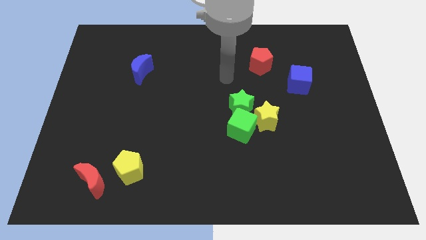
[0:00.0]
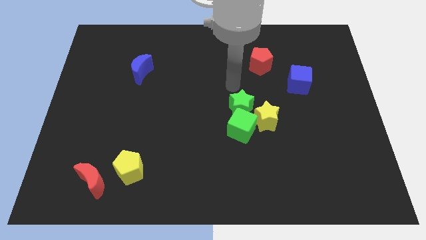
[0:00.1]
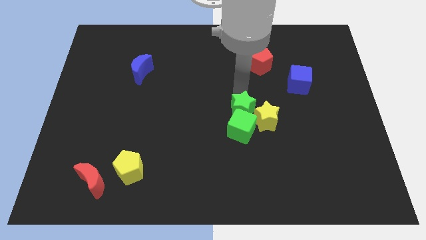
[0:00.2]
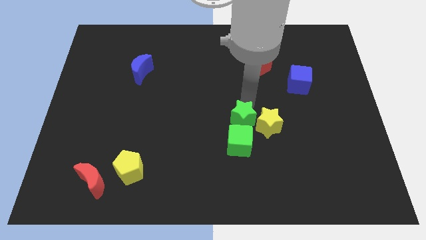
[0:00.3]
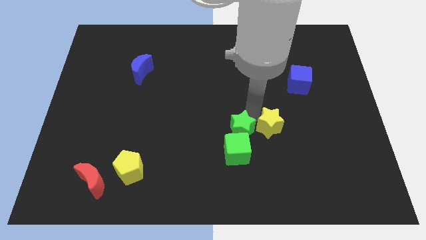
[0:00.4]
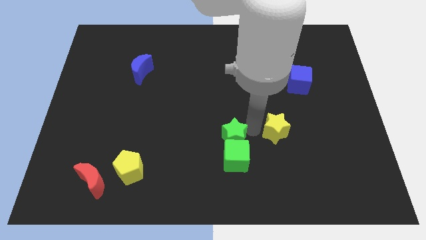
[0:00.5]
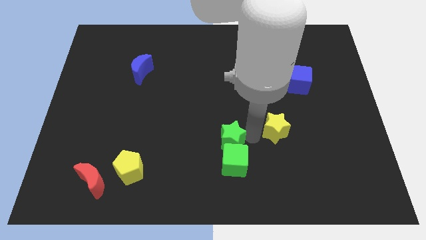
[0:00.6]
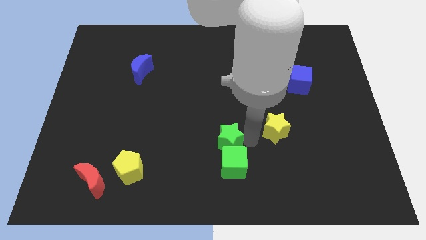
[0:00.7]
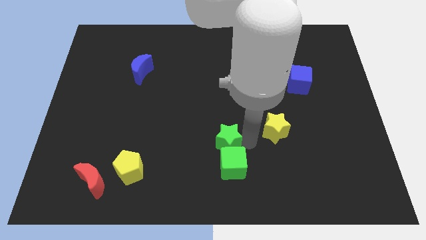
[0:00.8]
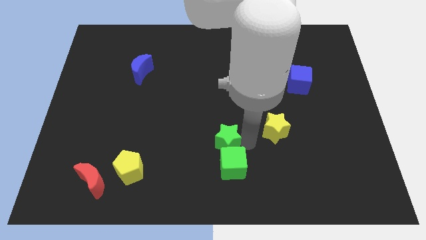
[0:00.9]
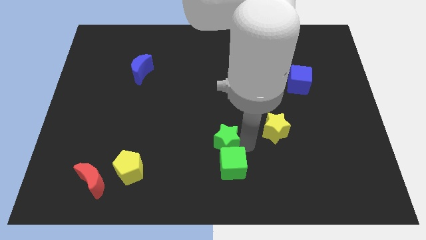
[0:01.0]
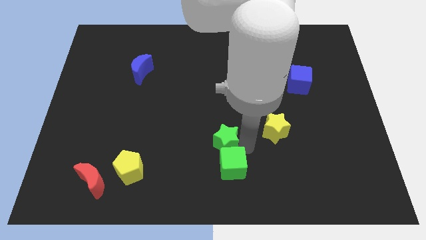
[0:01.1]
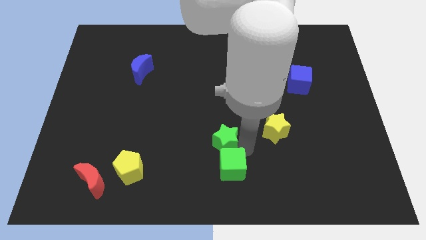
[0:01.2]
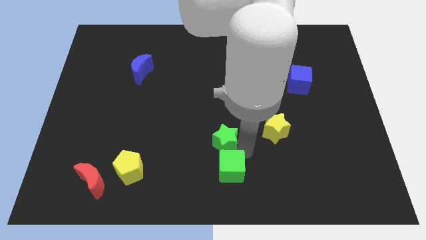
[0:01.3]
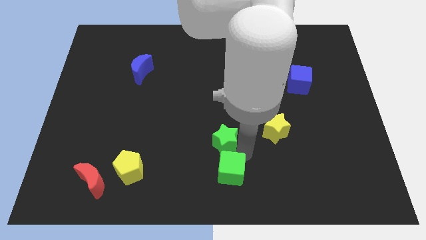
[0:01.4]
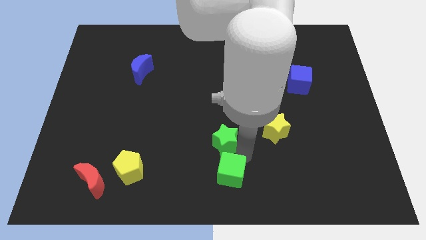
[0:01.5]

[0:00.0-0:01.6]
pull the green cube apart from the green star and yellow star

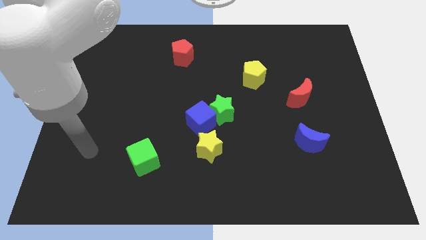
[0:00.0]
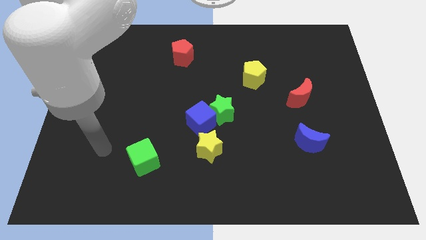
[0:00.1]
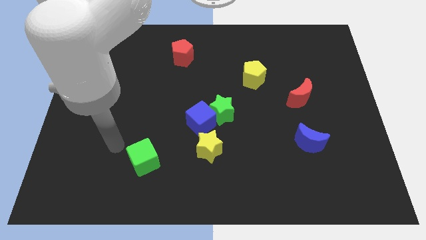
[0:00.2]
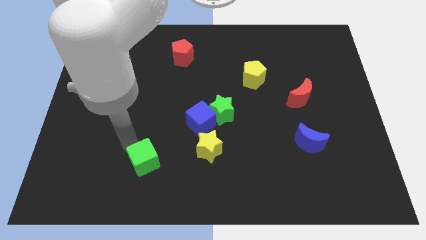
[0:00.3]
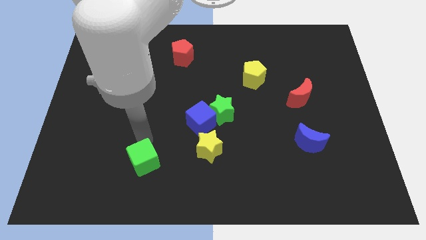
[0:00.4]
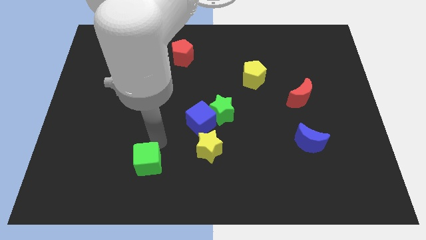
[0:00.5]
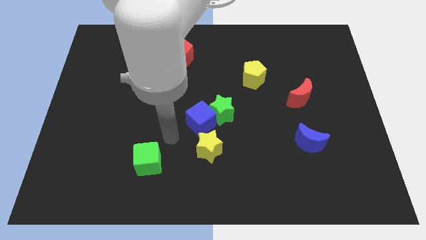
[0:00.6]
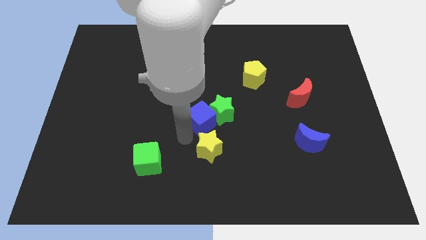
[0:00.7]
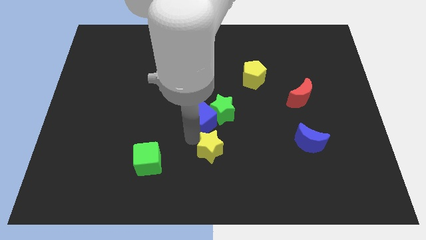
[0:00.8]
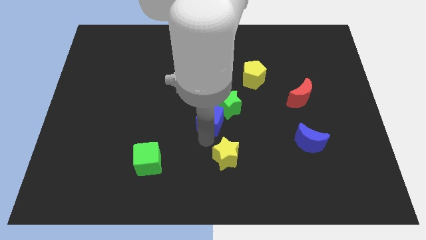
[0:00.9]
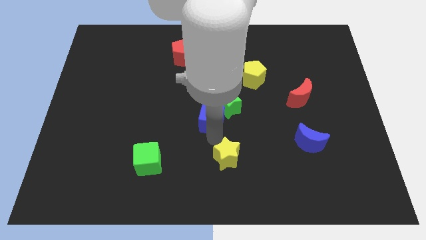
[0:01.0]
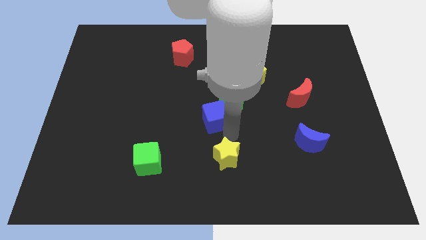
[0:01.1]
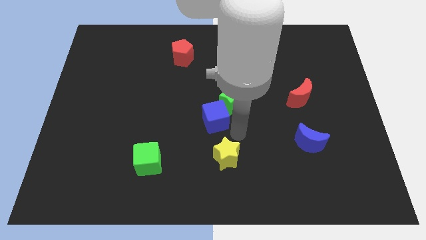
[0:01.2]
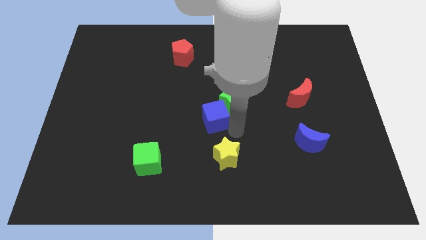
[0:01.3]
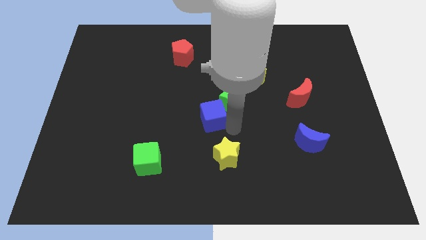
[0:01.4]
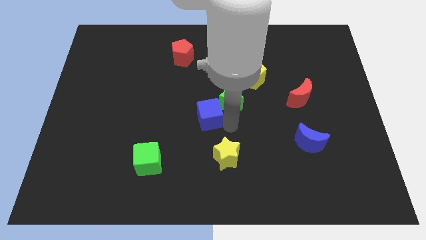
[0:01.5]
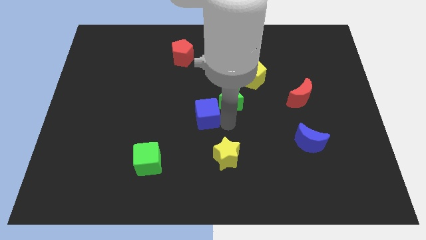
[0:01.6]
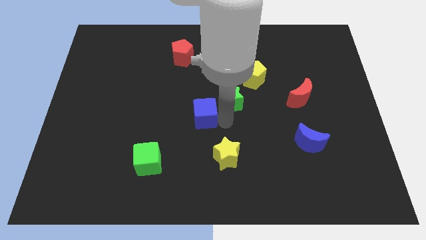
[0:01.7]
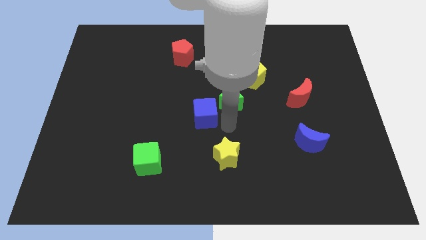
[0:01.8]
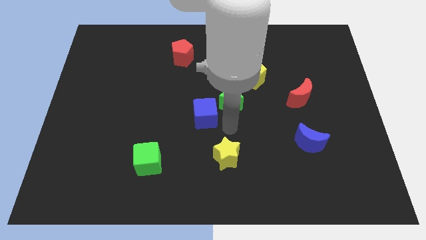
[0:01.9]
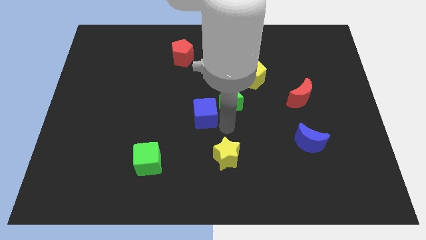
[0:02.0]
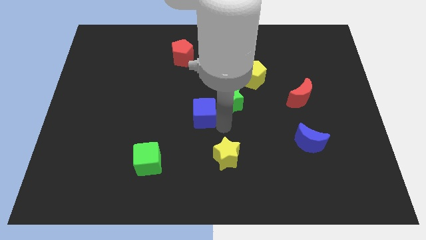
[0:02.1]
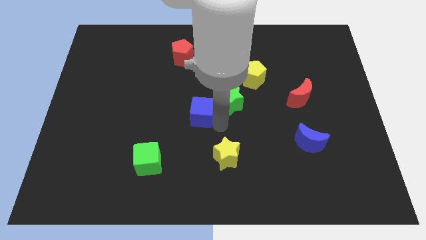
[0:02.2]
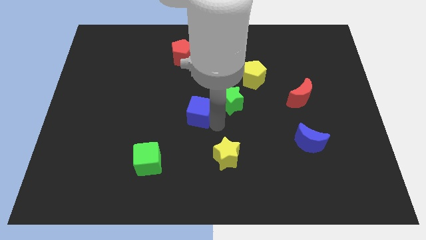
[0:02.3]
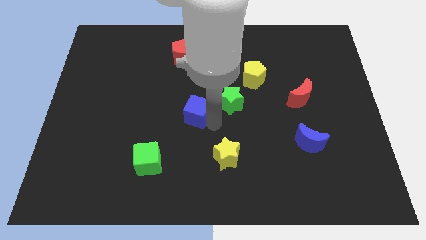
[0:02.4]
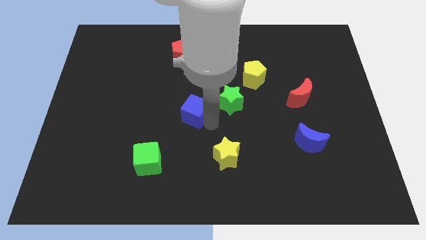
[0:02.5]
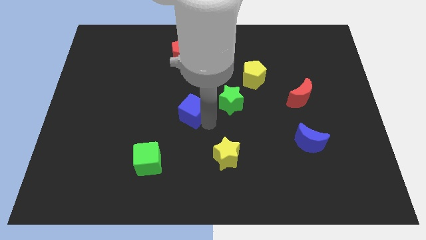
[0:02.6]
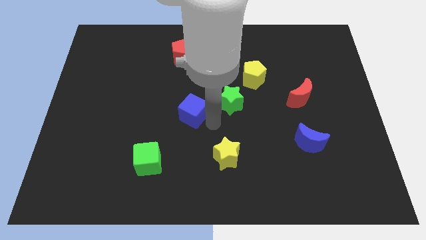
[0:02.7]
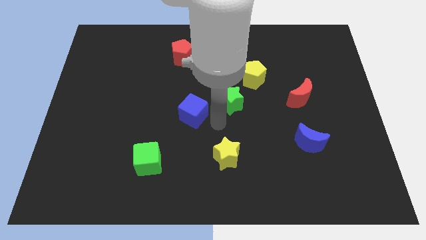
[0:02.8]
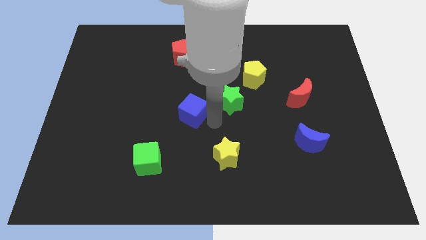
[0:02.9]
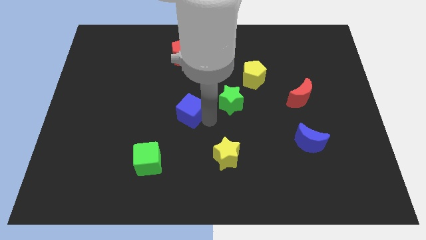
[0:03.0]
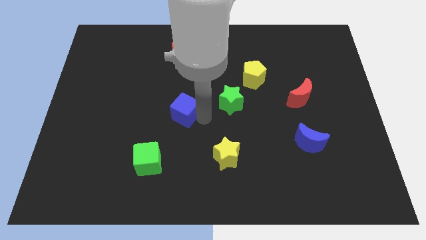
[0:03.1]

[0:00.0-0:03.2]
separate the blue cube from the green star and yellow star

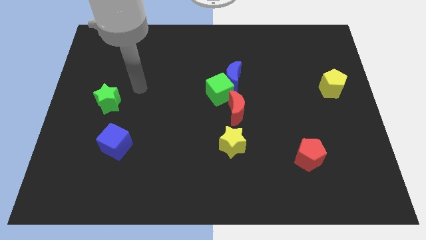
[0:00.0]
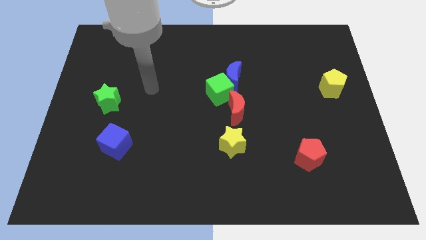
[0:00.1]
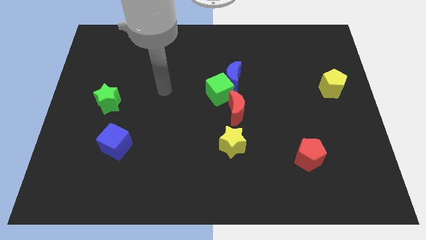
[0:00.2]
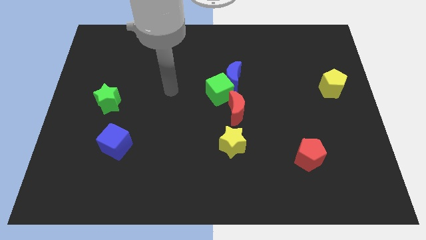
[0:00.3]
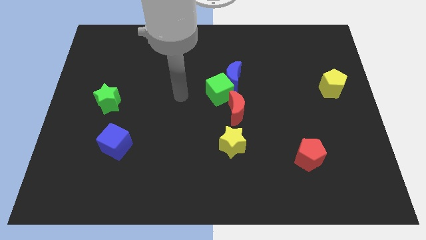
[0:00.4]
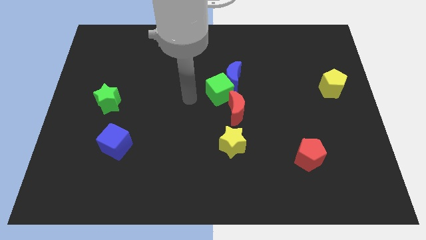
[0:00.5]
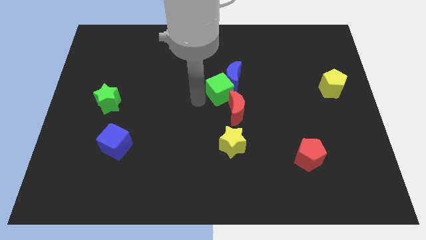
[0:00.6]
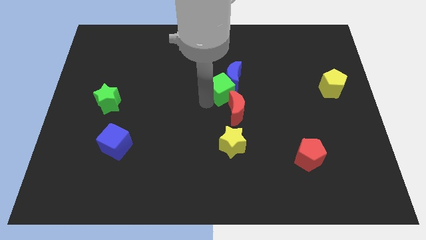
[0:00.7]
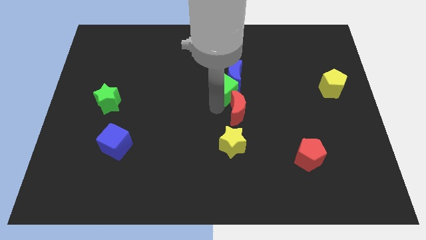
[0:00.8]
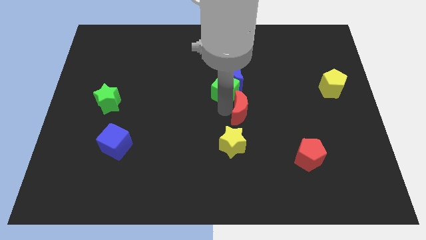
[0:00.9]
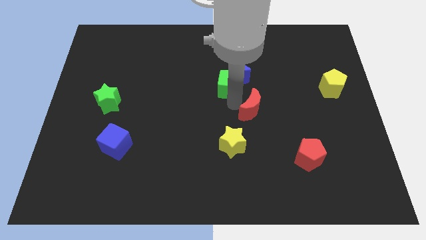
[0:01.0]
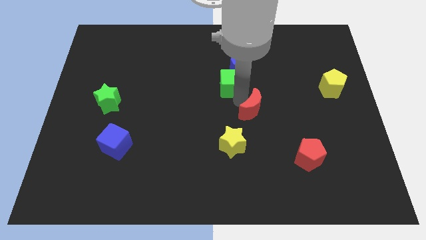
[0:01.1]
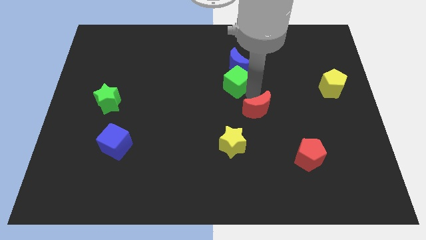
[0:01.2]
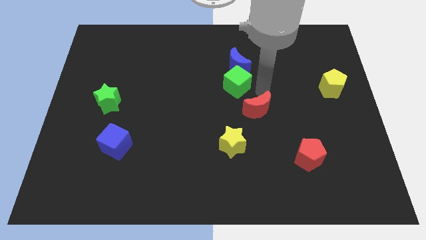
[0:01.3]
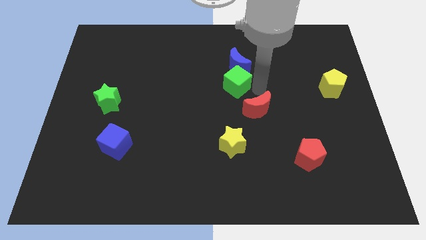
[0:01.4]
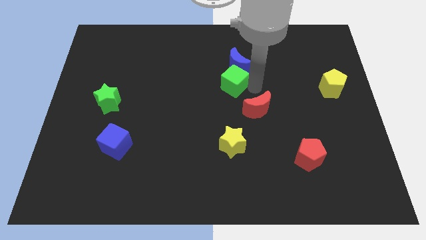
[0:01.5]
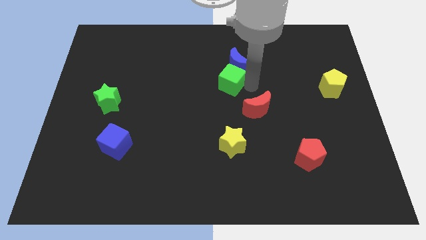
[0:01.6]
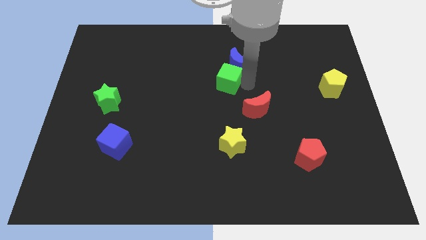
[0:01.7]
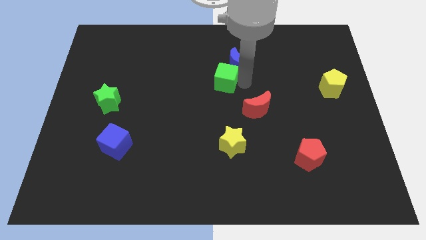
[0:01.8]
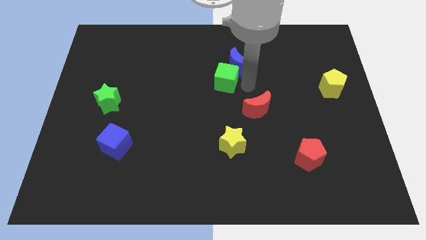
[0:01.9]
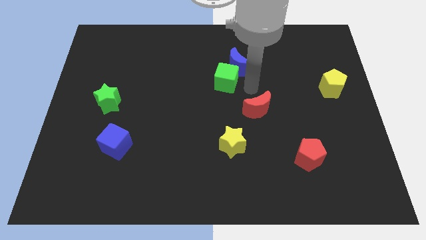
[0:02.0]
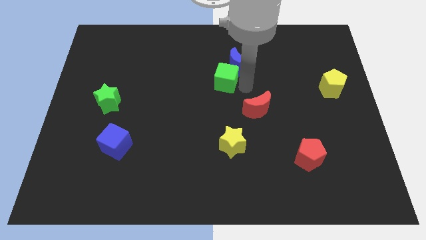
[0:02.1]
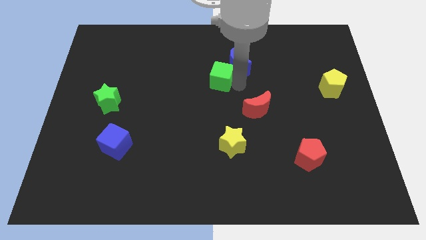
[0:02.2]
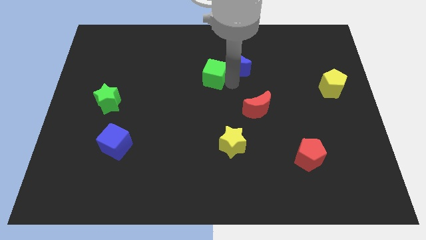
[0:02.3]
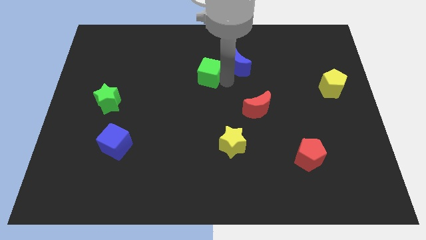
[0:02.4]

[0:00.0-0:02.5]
separate the green cube from the blue moon and red moon

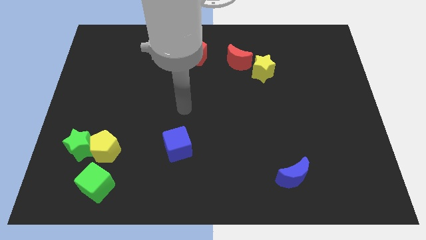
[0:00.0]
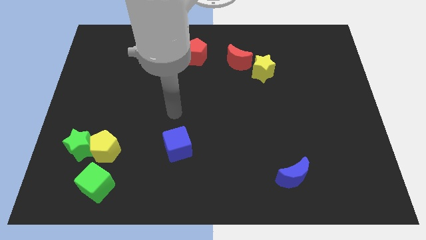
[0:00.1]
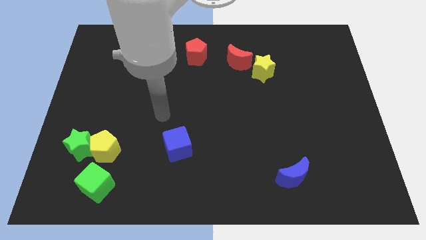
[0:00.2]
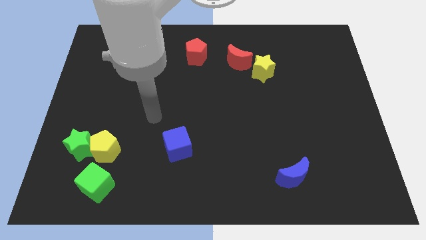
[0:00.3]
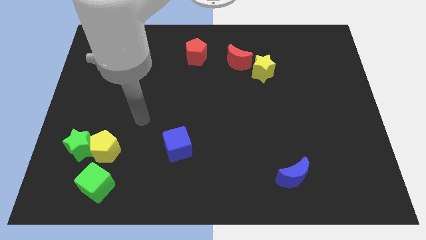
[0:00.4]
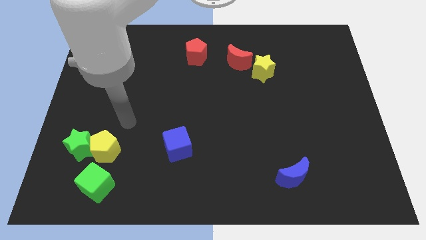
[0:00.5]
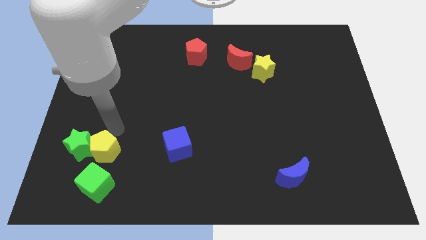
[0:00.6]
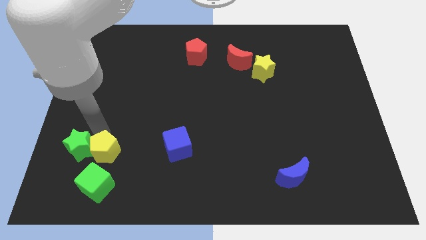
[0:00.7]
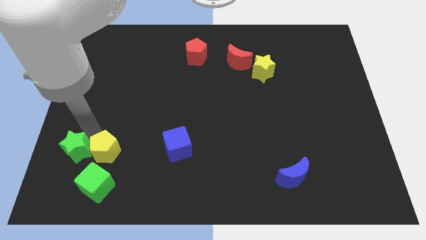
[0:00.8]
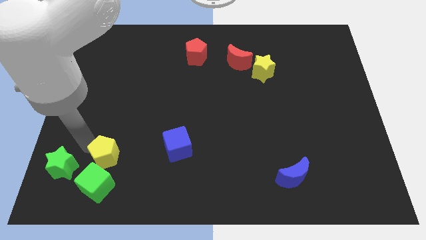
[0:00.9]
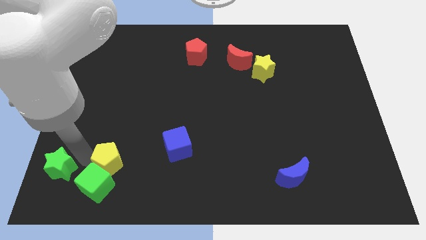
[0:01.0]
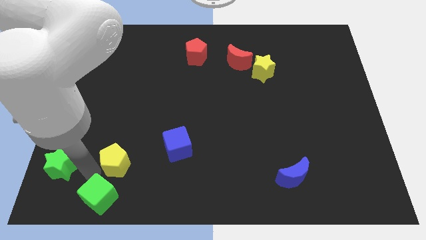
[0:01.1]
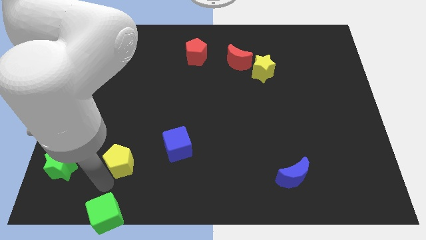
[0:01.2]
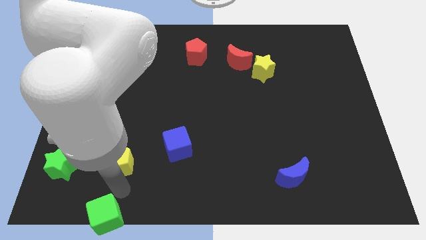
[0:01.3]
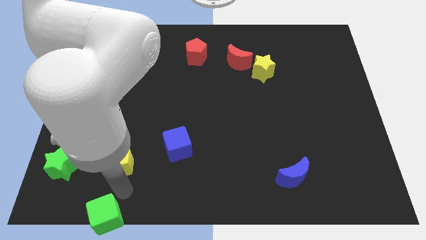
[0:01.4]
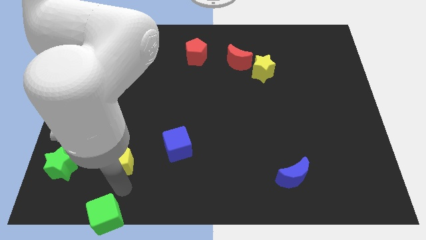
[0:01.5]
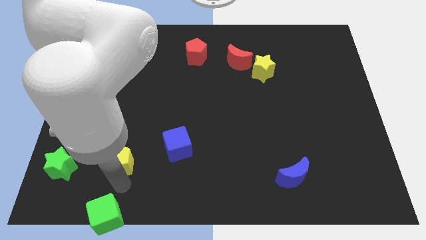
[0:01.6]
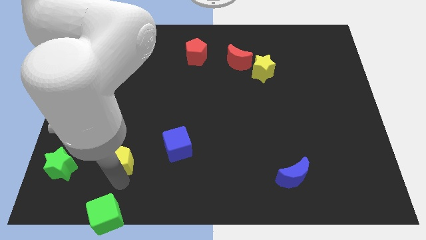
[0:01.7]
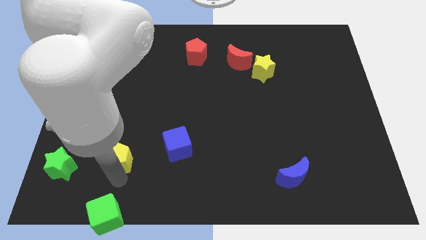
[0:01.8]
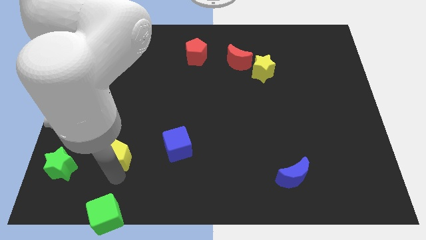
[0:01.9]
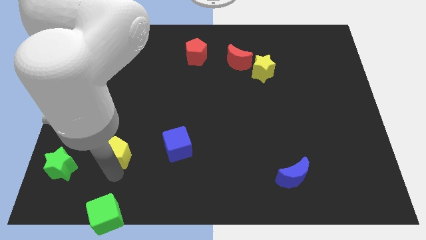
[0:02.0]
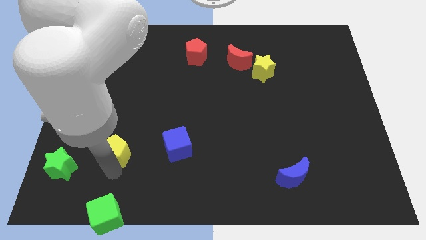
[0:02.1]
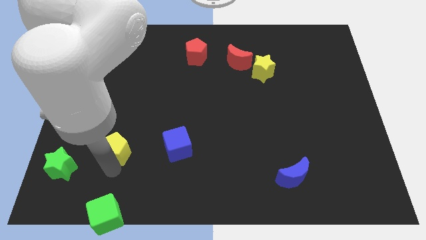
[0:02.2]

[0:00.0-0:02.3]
move the yellow pentagon away from the green star and green cube

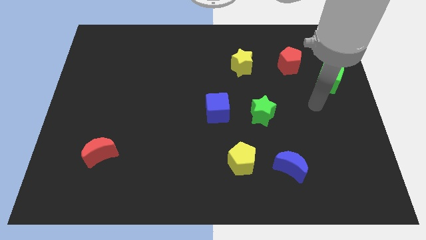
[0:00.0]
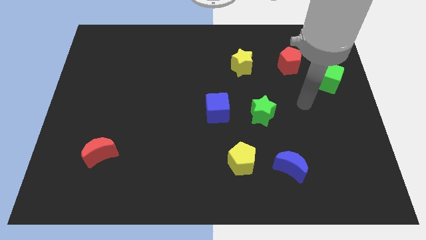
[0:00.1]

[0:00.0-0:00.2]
move the blue cube away from the green star
